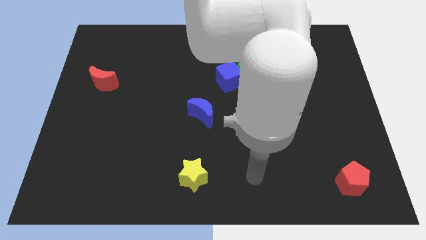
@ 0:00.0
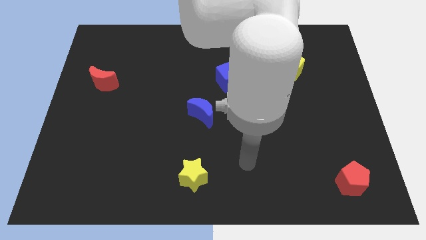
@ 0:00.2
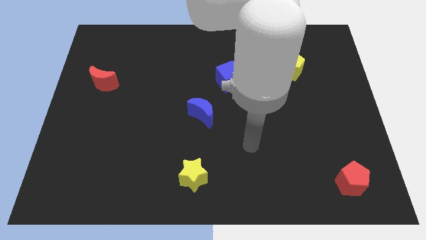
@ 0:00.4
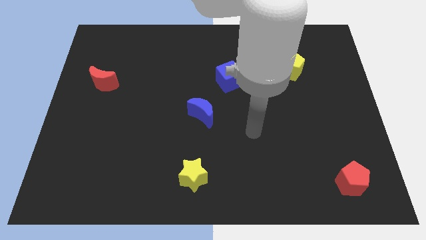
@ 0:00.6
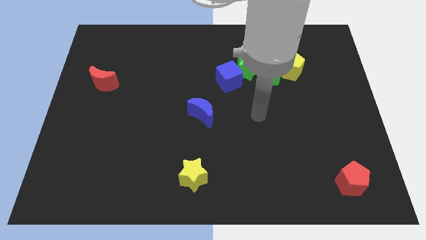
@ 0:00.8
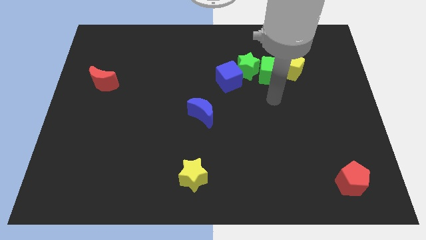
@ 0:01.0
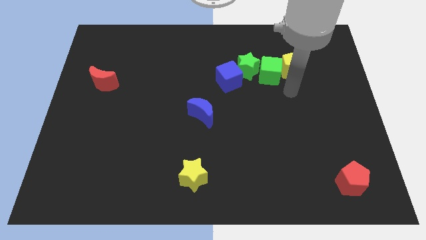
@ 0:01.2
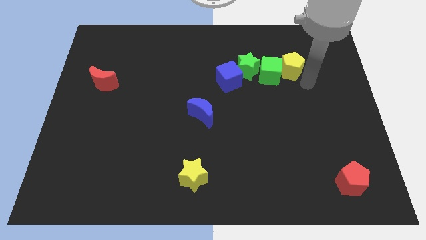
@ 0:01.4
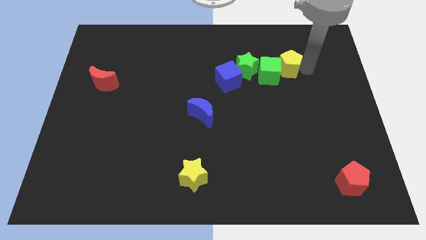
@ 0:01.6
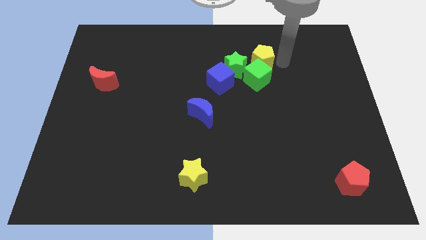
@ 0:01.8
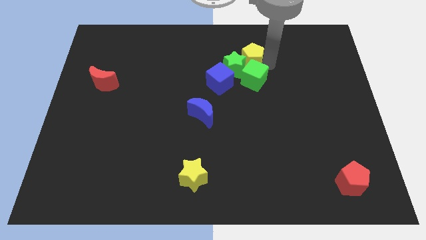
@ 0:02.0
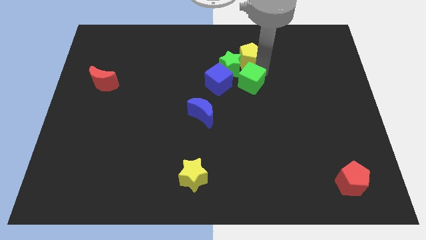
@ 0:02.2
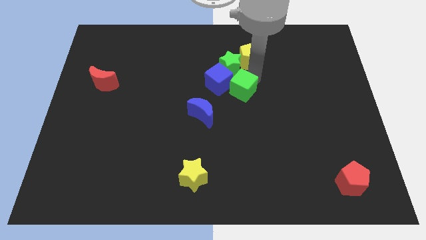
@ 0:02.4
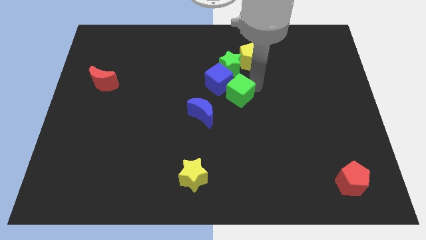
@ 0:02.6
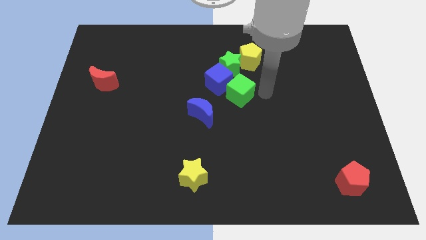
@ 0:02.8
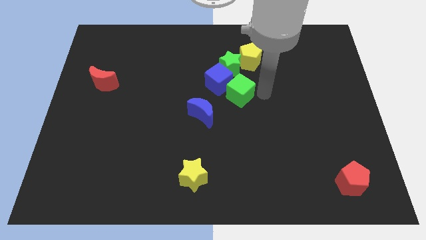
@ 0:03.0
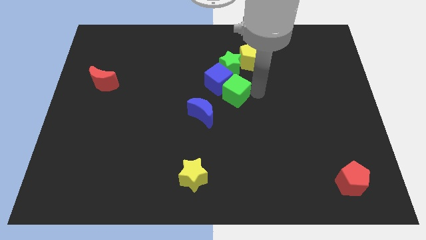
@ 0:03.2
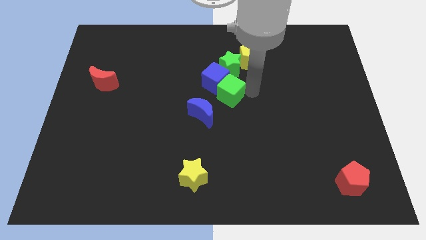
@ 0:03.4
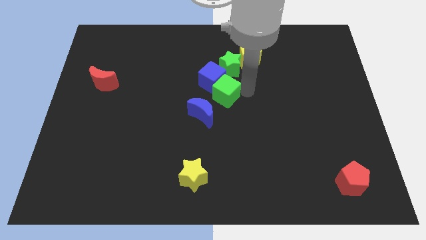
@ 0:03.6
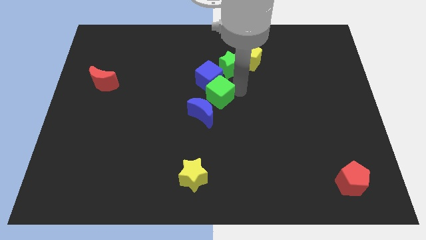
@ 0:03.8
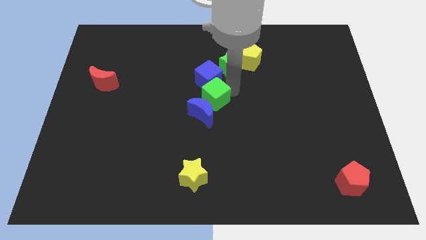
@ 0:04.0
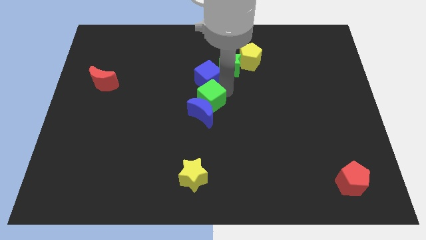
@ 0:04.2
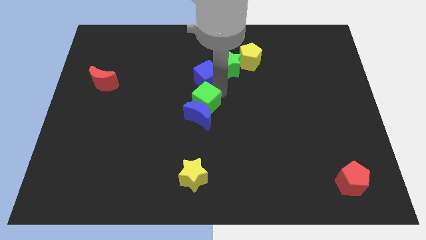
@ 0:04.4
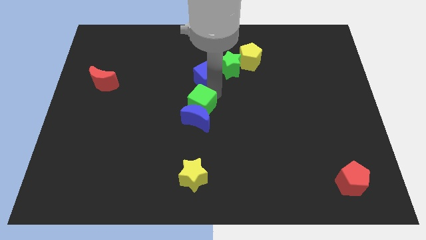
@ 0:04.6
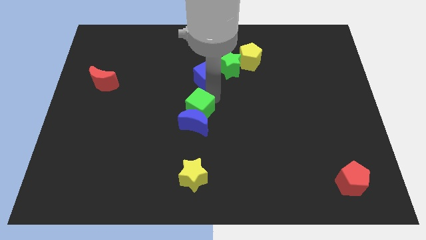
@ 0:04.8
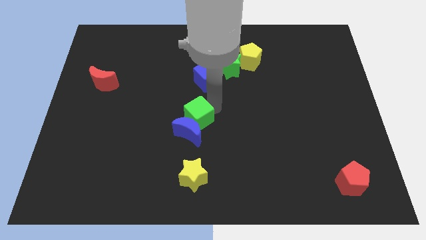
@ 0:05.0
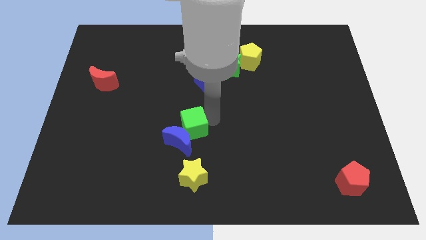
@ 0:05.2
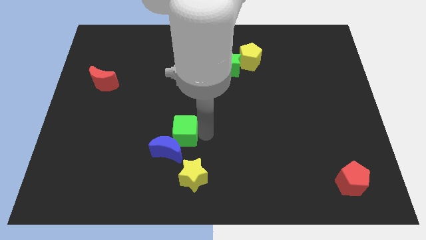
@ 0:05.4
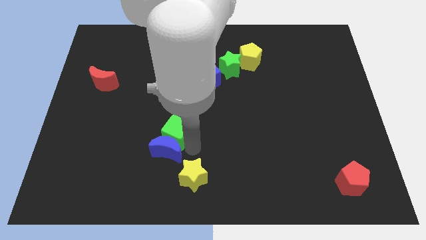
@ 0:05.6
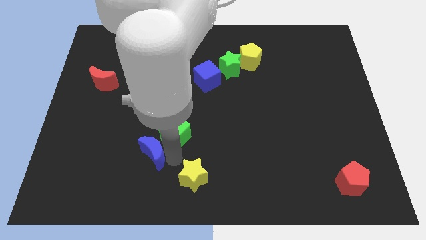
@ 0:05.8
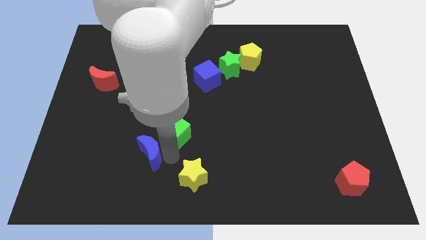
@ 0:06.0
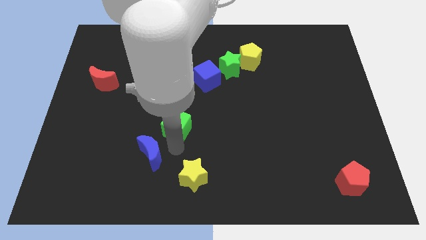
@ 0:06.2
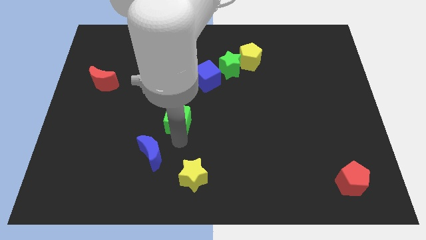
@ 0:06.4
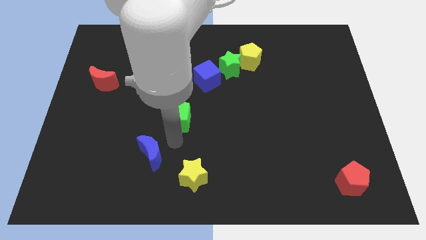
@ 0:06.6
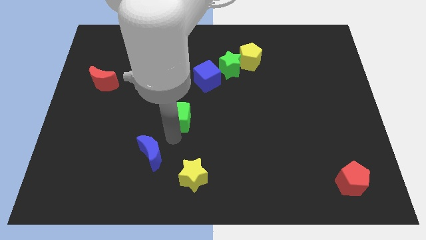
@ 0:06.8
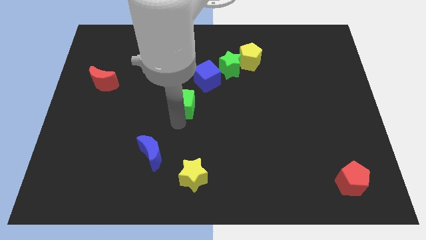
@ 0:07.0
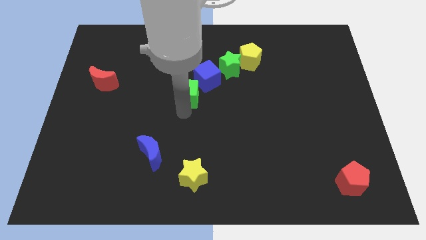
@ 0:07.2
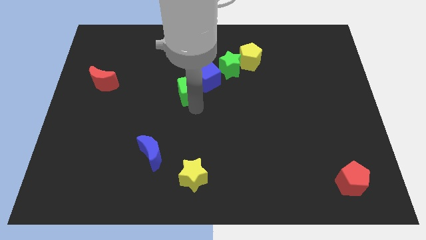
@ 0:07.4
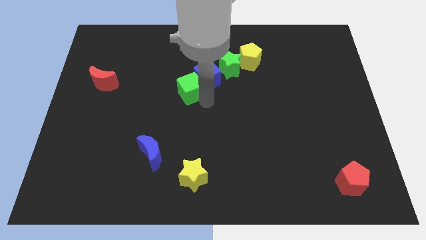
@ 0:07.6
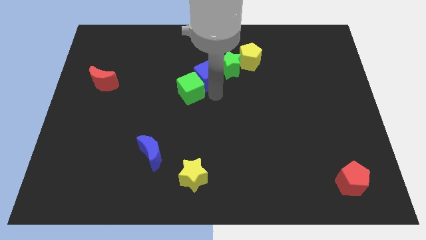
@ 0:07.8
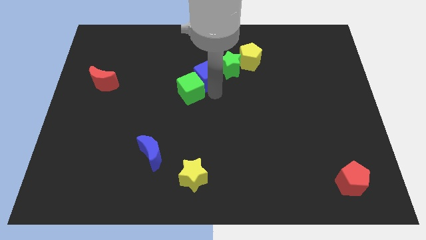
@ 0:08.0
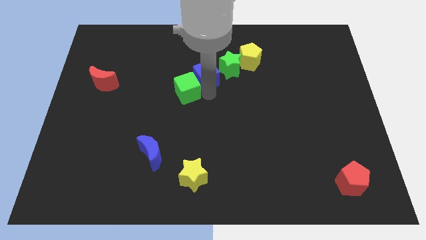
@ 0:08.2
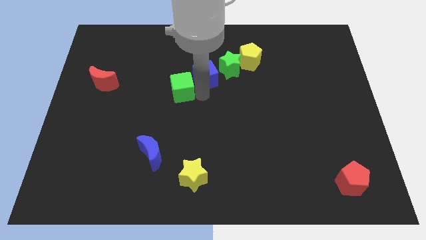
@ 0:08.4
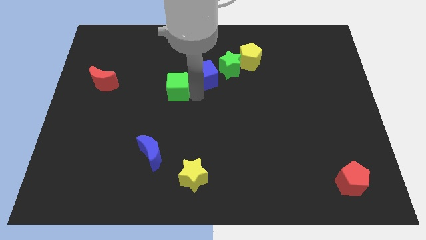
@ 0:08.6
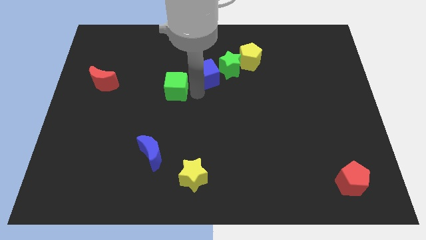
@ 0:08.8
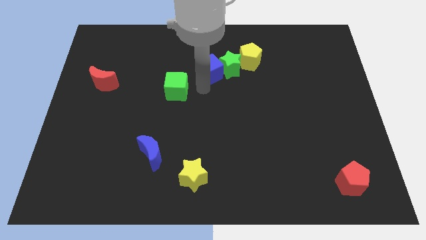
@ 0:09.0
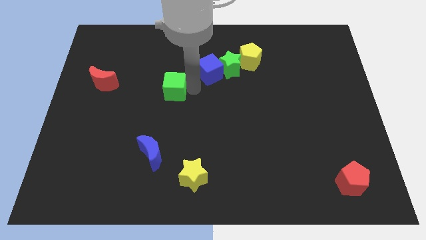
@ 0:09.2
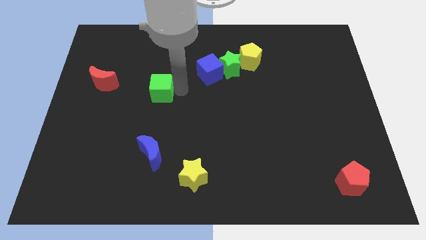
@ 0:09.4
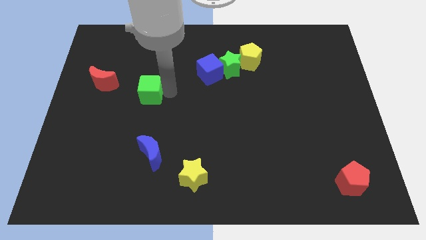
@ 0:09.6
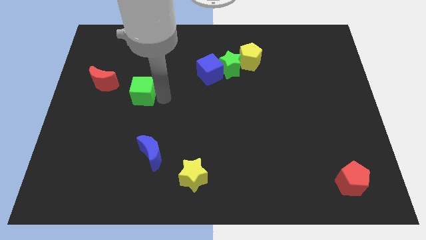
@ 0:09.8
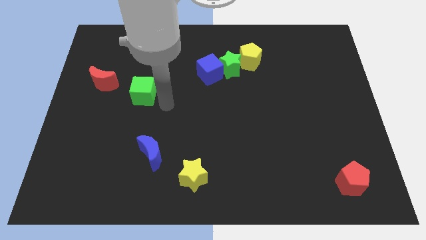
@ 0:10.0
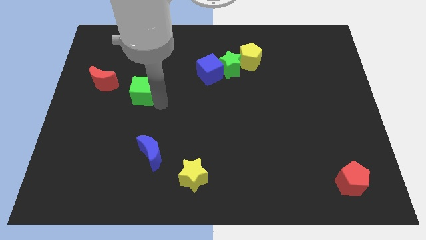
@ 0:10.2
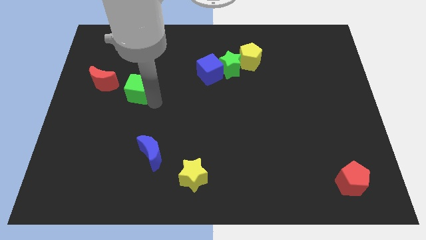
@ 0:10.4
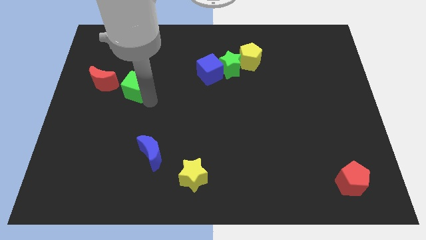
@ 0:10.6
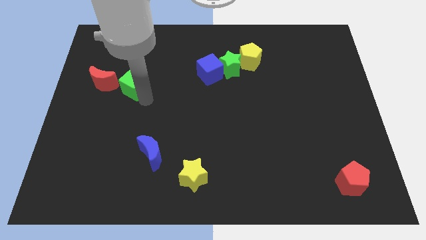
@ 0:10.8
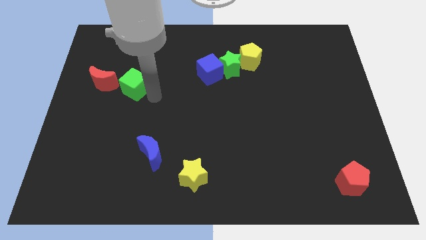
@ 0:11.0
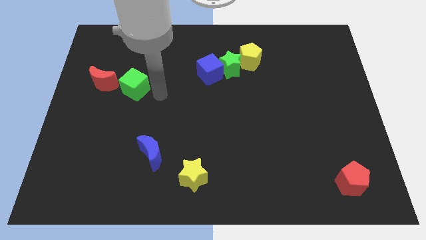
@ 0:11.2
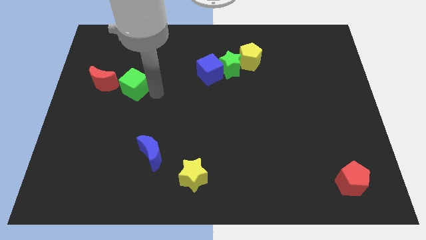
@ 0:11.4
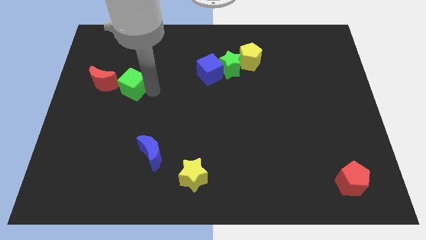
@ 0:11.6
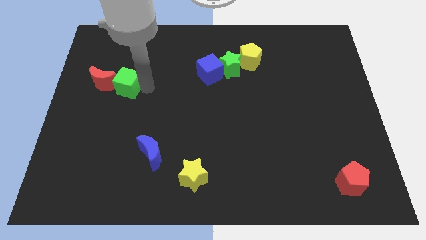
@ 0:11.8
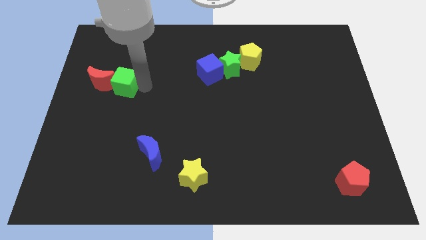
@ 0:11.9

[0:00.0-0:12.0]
slide the green cube to the red moon

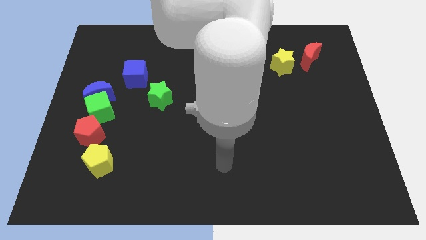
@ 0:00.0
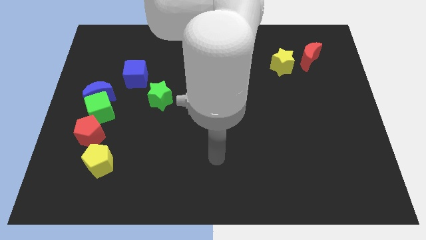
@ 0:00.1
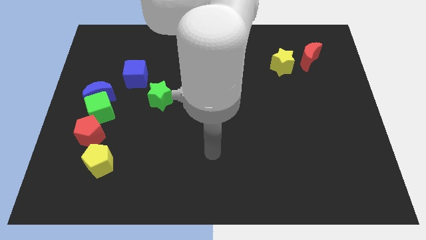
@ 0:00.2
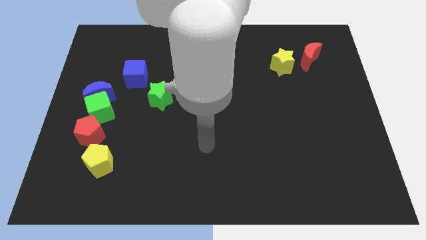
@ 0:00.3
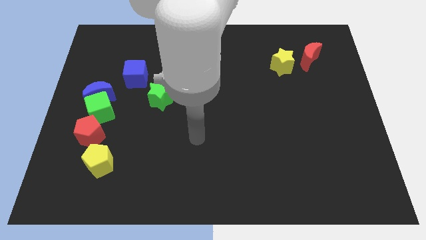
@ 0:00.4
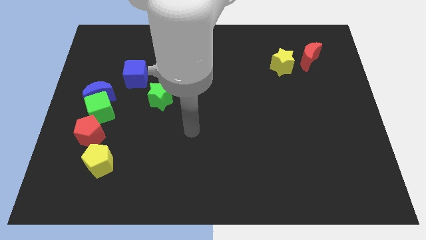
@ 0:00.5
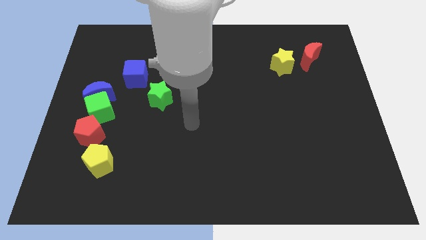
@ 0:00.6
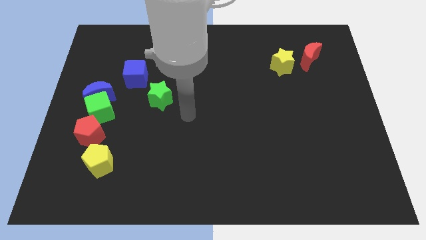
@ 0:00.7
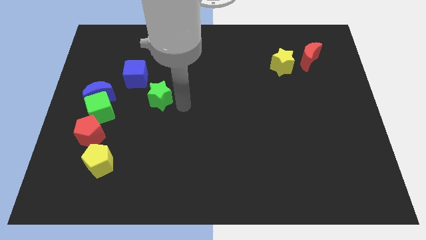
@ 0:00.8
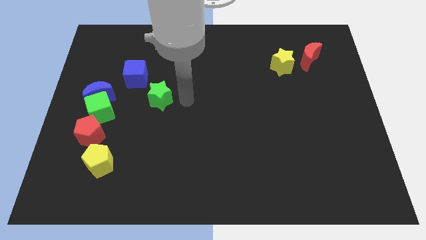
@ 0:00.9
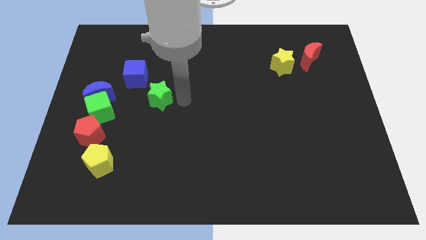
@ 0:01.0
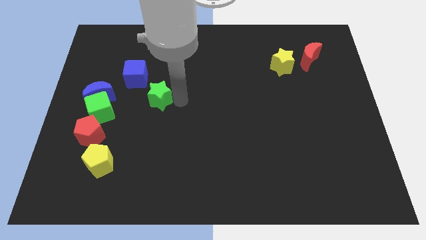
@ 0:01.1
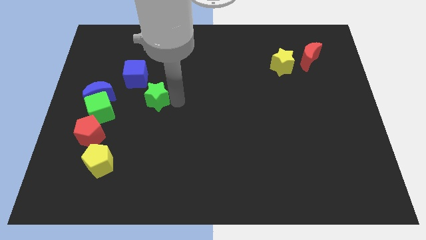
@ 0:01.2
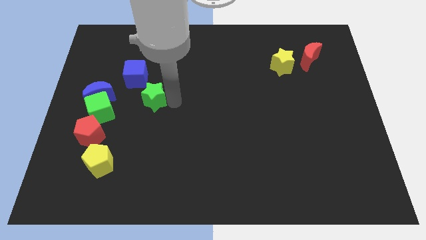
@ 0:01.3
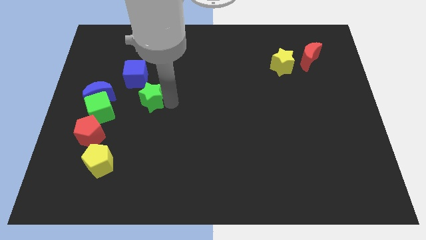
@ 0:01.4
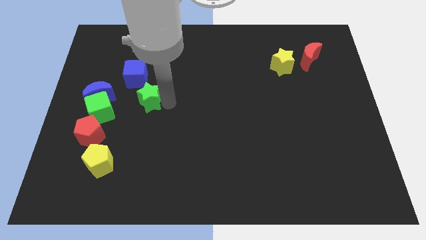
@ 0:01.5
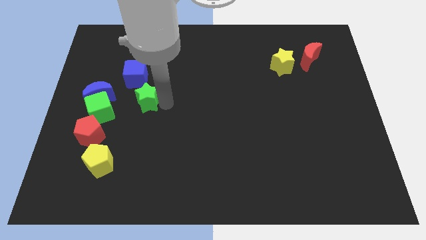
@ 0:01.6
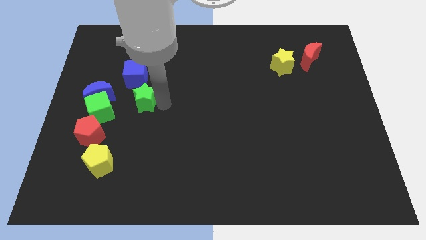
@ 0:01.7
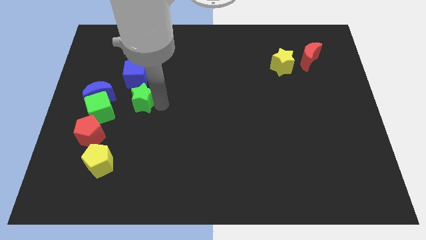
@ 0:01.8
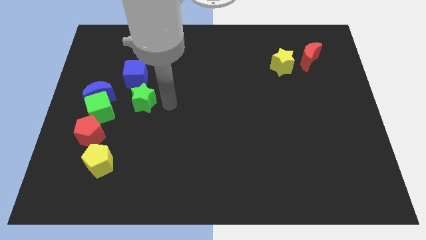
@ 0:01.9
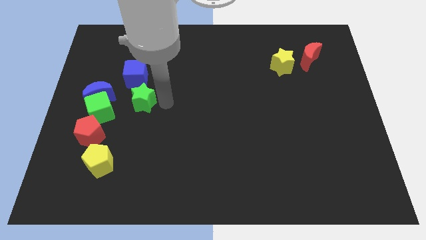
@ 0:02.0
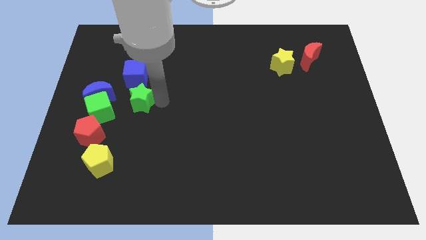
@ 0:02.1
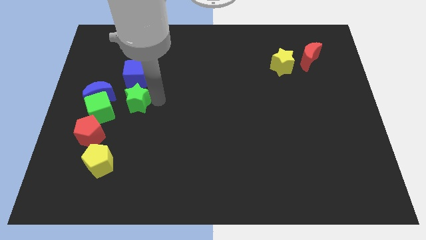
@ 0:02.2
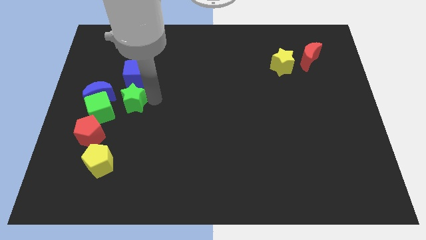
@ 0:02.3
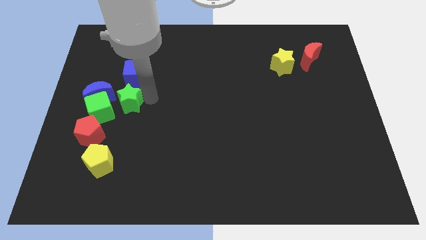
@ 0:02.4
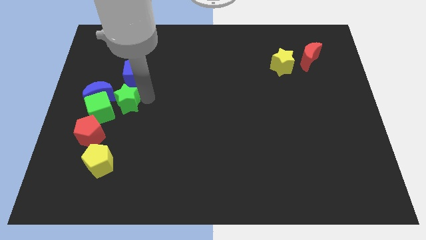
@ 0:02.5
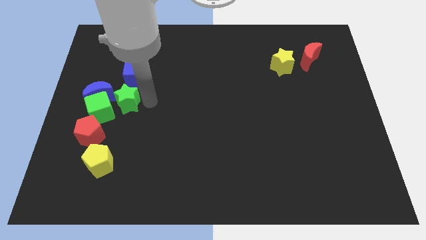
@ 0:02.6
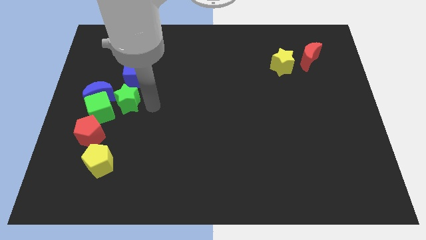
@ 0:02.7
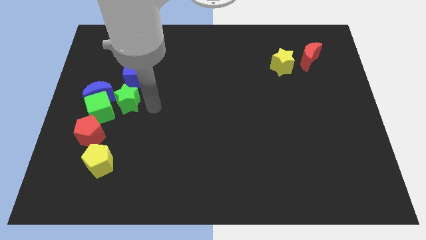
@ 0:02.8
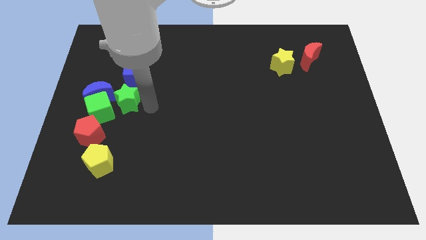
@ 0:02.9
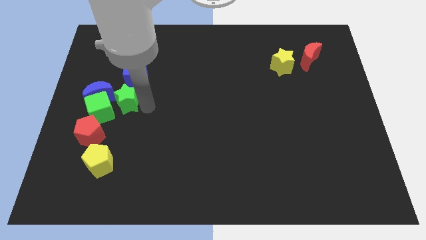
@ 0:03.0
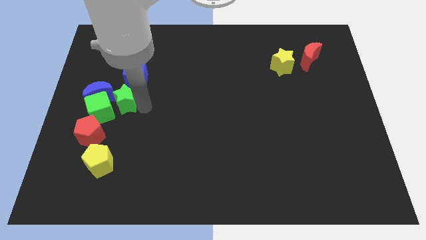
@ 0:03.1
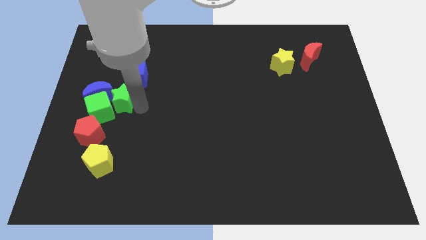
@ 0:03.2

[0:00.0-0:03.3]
move the green star to the blue moon
